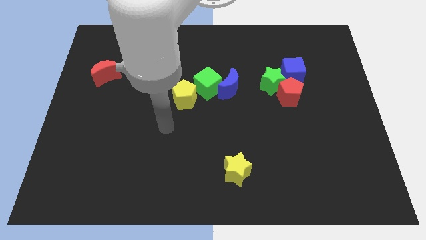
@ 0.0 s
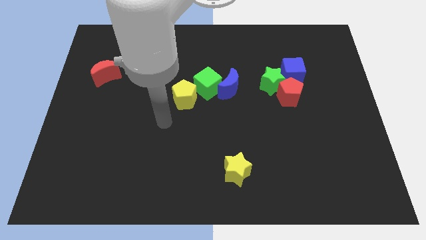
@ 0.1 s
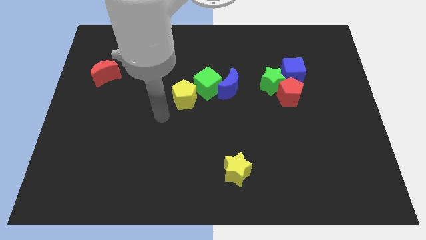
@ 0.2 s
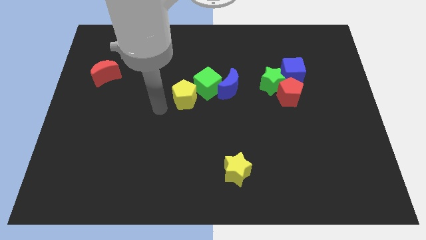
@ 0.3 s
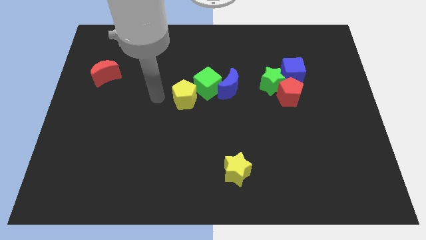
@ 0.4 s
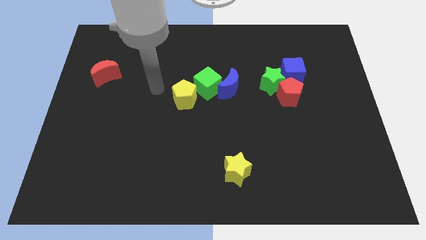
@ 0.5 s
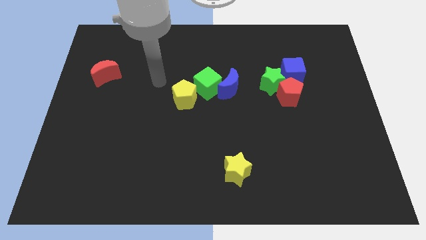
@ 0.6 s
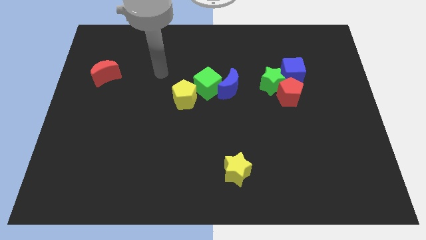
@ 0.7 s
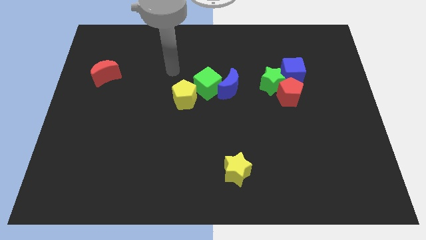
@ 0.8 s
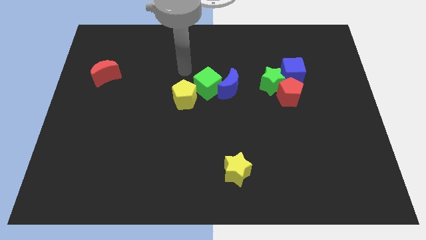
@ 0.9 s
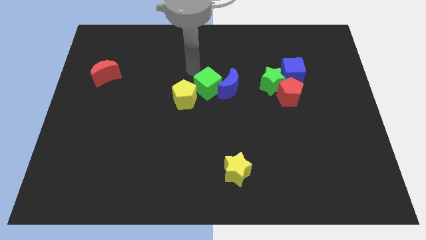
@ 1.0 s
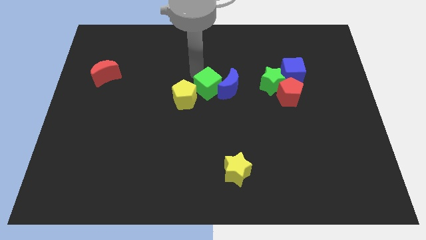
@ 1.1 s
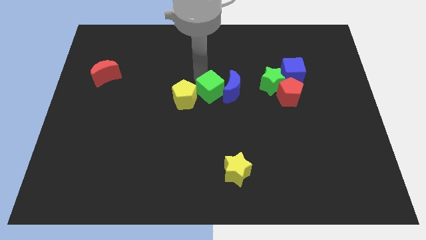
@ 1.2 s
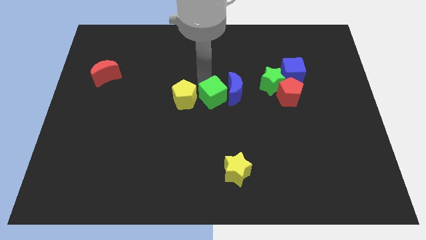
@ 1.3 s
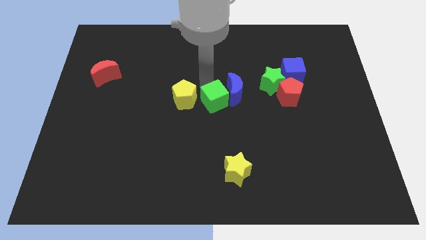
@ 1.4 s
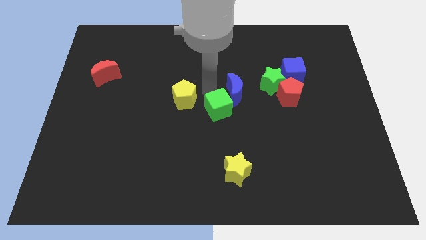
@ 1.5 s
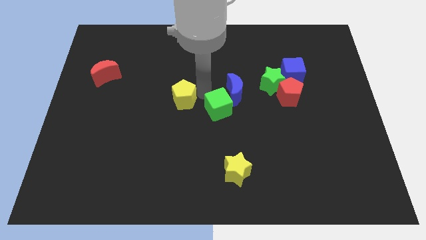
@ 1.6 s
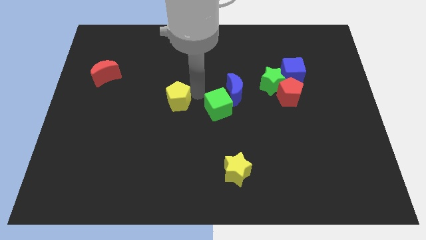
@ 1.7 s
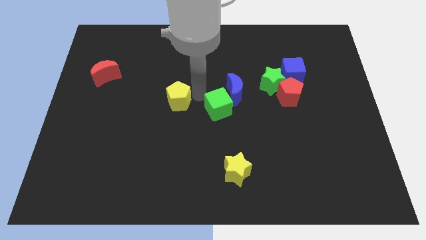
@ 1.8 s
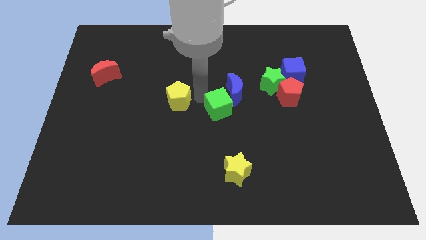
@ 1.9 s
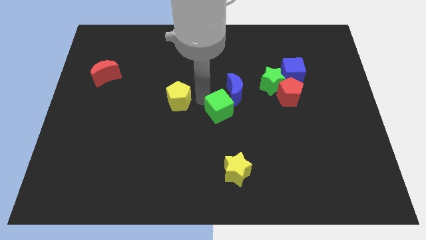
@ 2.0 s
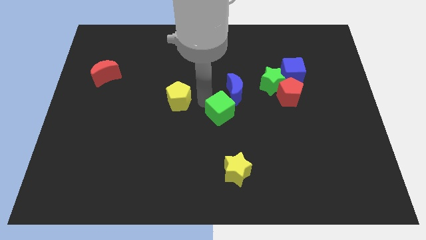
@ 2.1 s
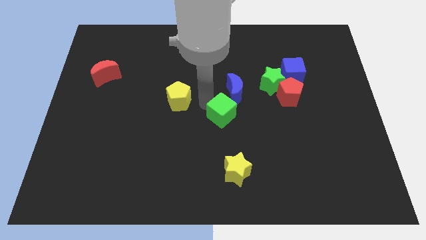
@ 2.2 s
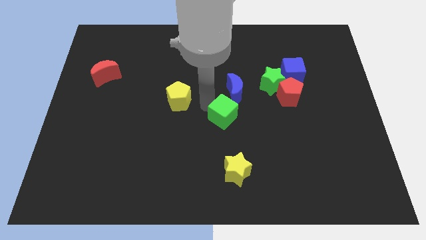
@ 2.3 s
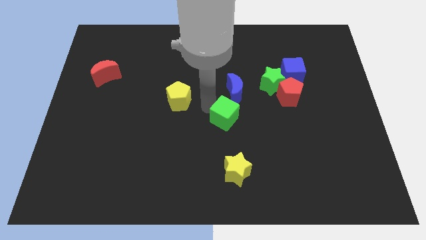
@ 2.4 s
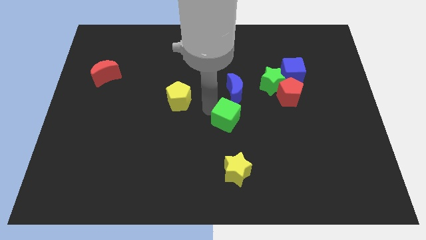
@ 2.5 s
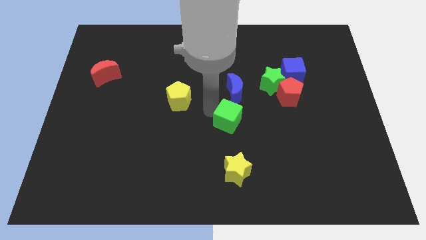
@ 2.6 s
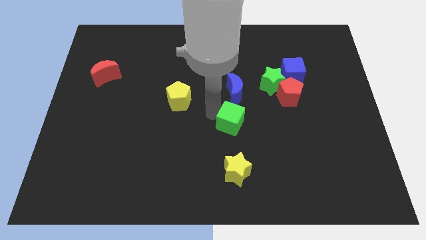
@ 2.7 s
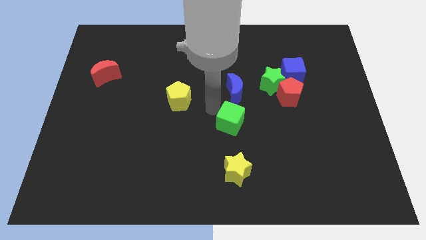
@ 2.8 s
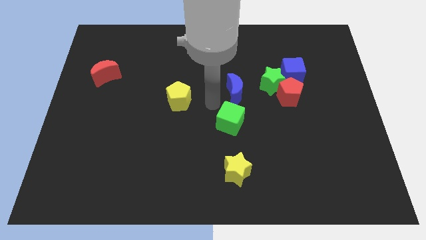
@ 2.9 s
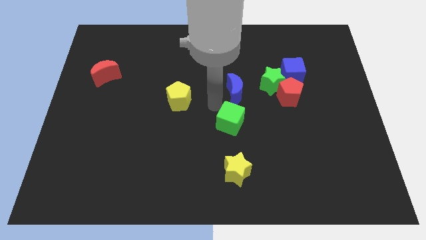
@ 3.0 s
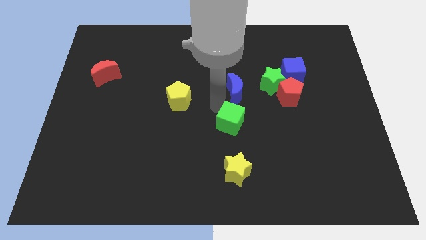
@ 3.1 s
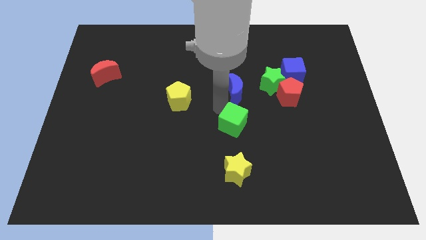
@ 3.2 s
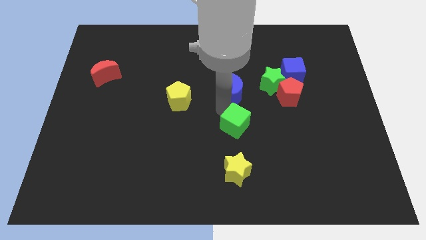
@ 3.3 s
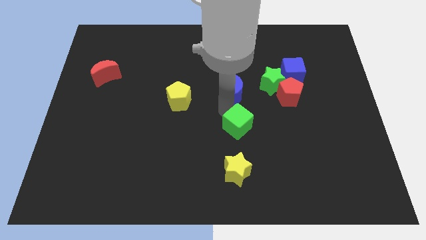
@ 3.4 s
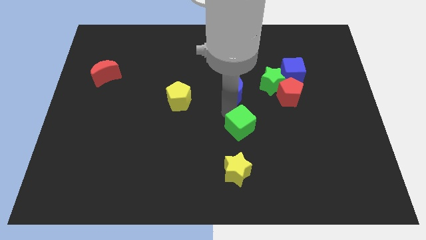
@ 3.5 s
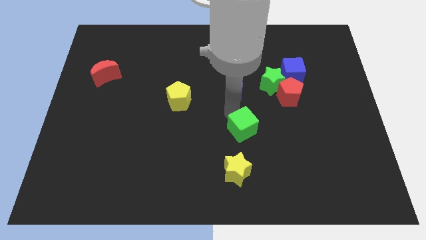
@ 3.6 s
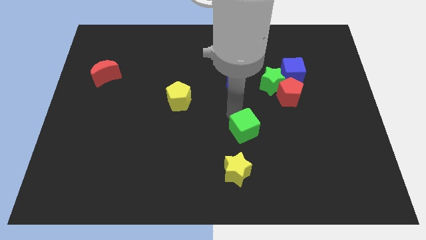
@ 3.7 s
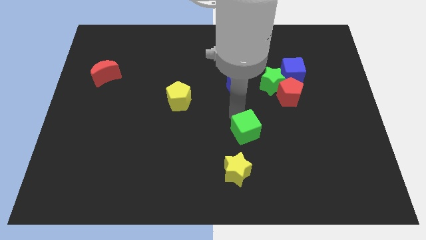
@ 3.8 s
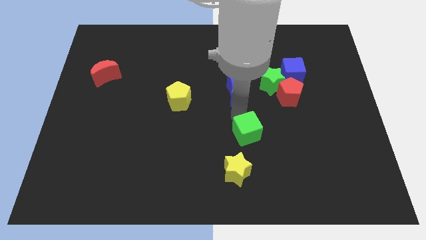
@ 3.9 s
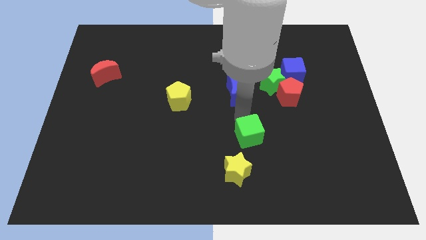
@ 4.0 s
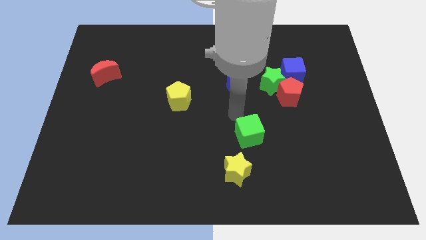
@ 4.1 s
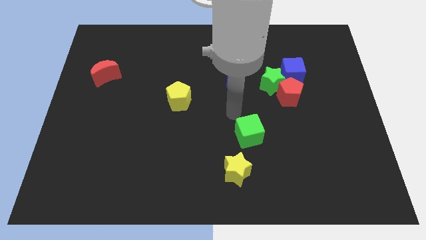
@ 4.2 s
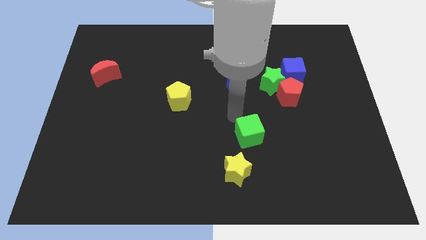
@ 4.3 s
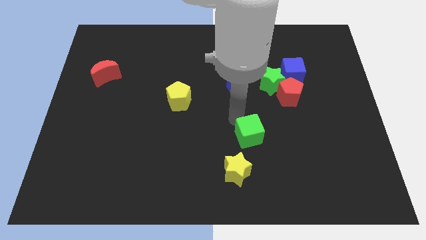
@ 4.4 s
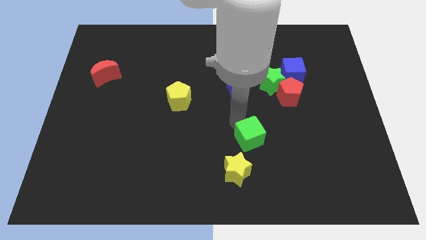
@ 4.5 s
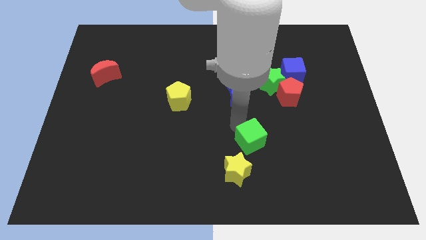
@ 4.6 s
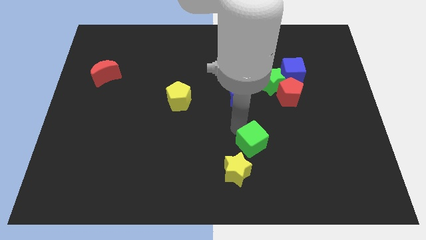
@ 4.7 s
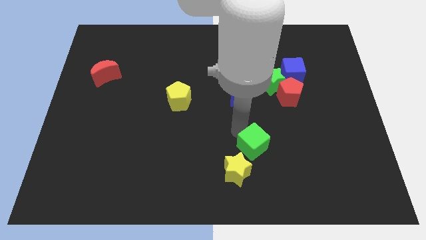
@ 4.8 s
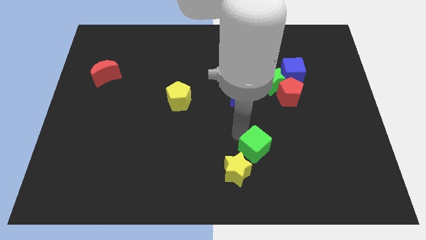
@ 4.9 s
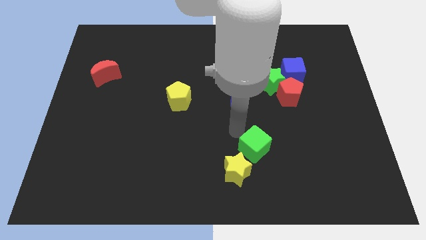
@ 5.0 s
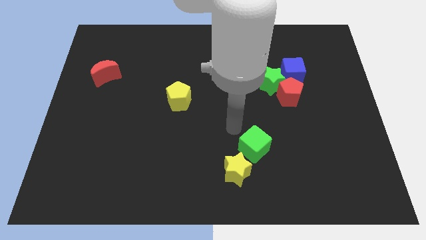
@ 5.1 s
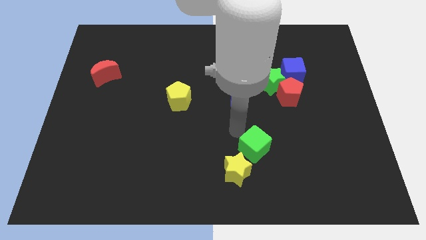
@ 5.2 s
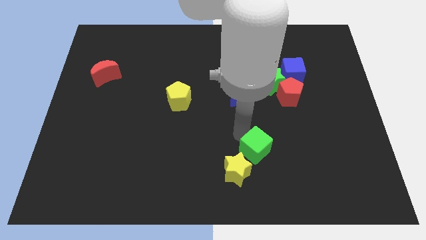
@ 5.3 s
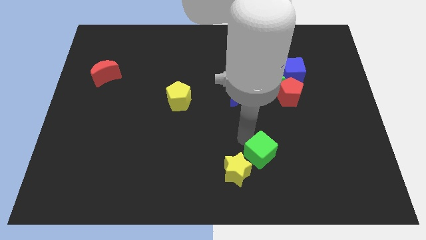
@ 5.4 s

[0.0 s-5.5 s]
slide the green cube to the right side of the yellow star

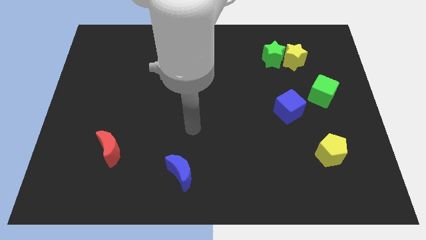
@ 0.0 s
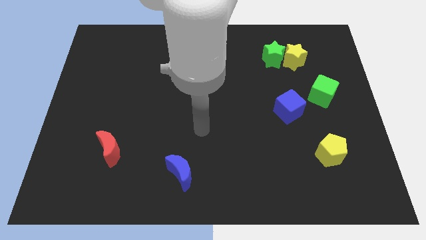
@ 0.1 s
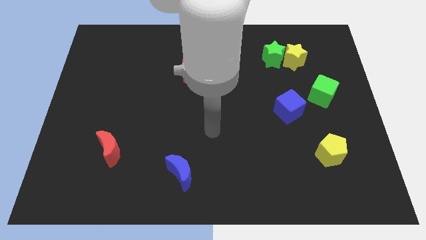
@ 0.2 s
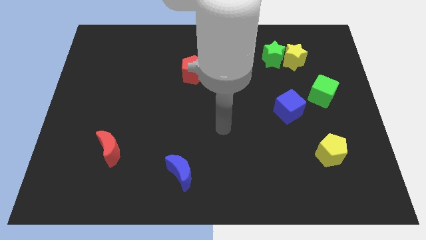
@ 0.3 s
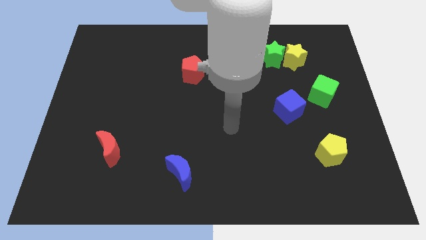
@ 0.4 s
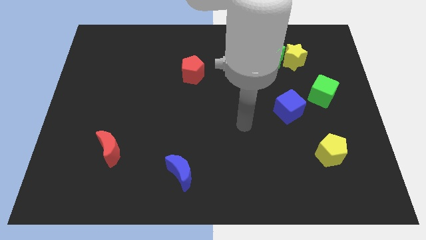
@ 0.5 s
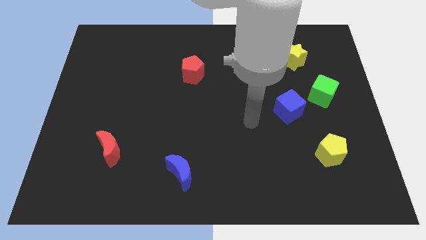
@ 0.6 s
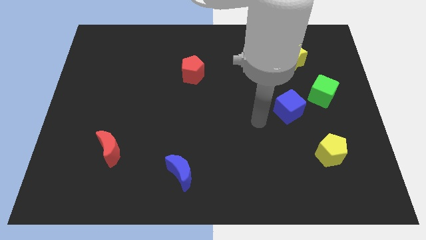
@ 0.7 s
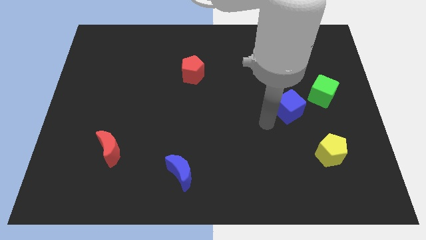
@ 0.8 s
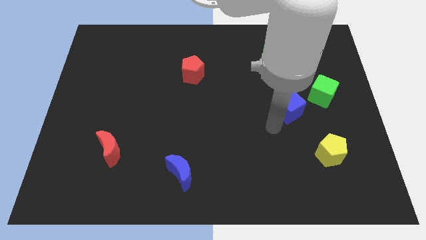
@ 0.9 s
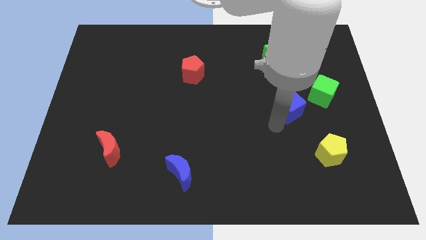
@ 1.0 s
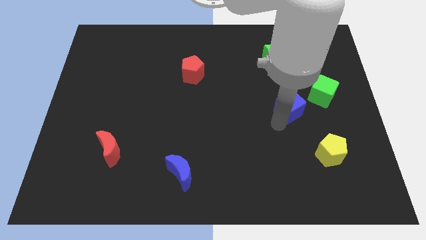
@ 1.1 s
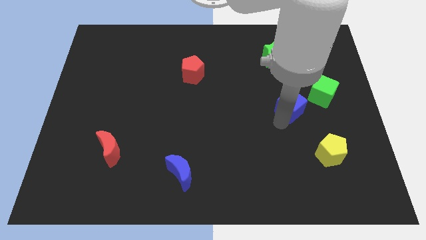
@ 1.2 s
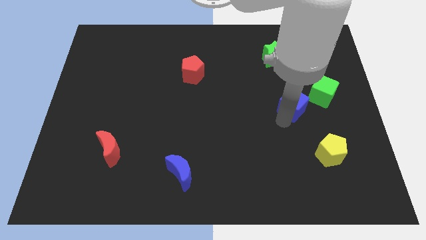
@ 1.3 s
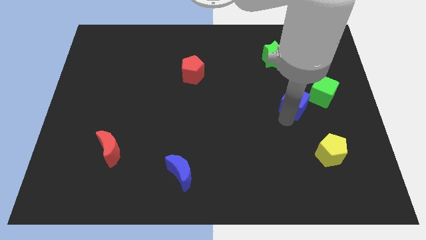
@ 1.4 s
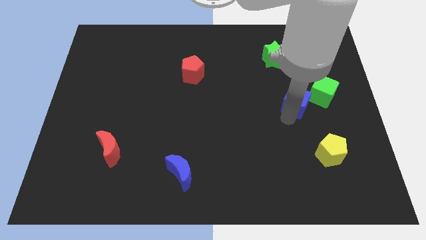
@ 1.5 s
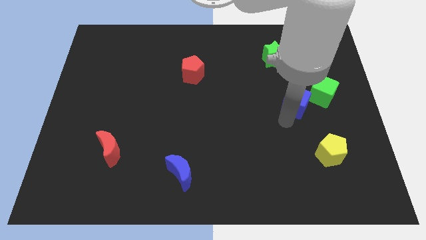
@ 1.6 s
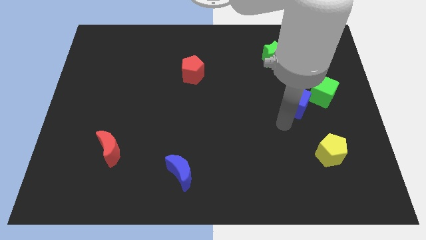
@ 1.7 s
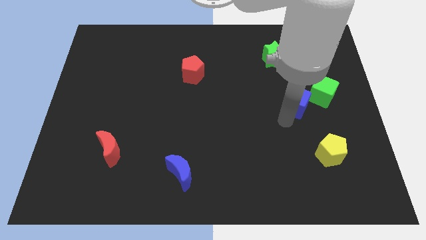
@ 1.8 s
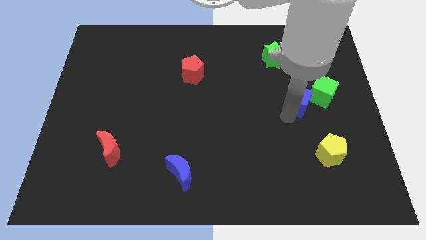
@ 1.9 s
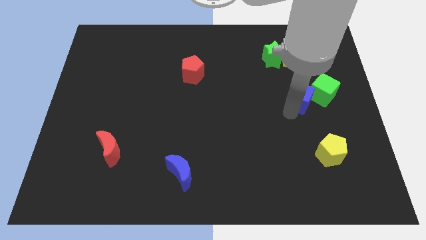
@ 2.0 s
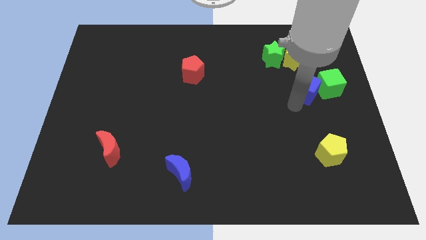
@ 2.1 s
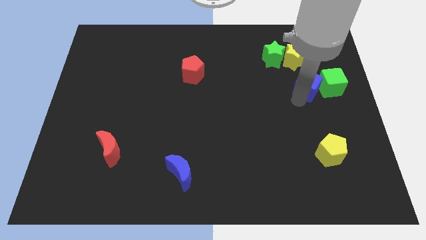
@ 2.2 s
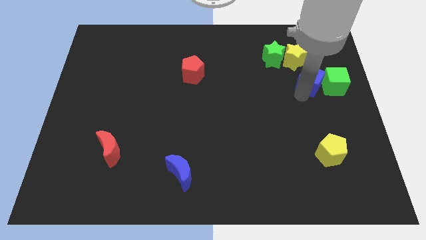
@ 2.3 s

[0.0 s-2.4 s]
slide the blue cube diagonally down and to the right of the yellow star
